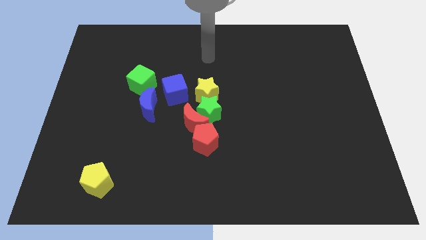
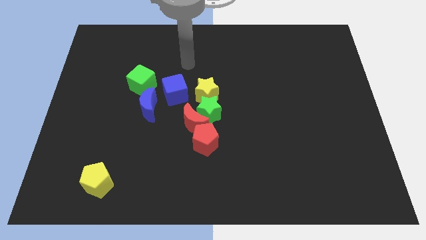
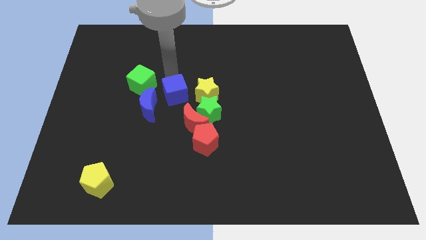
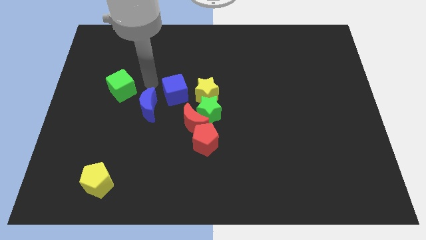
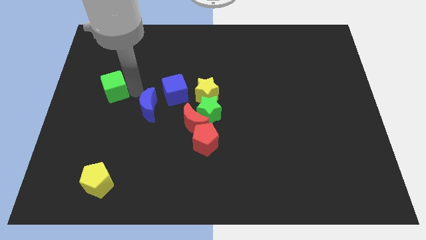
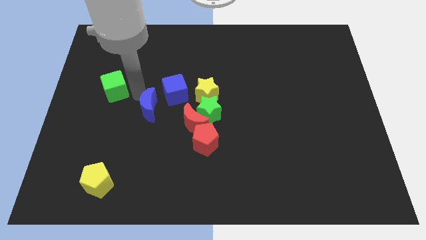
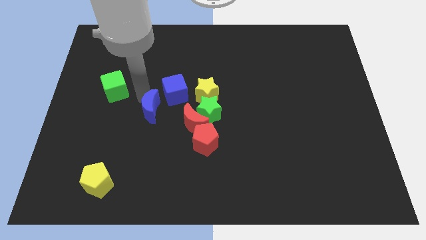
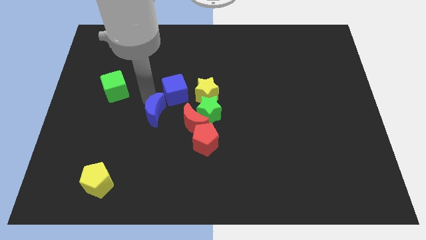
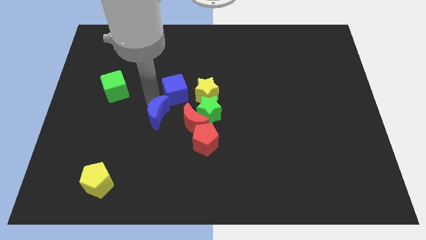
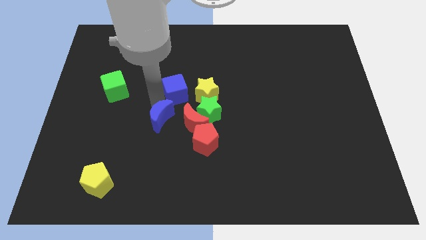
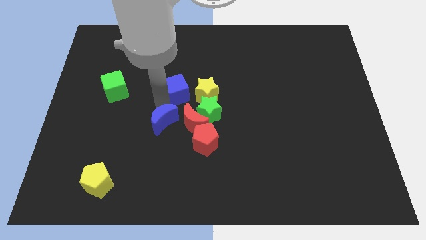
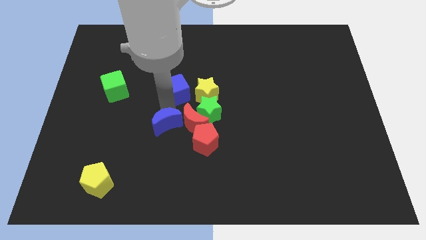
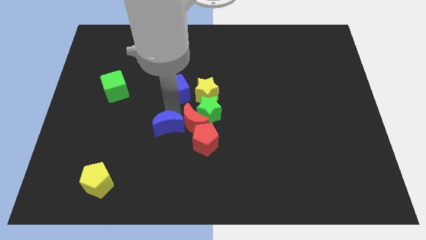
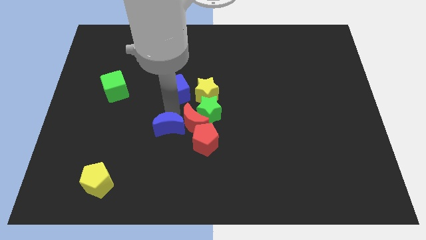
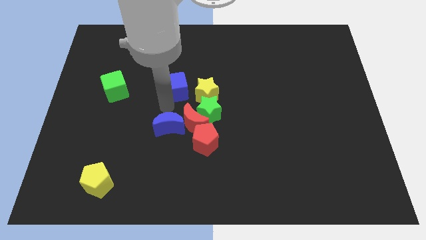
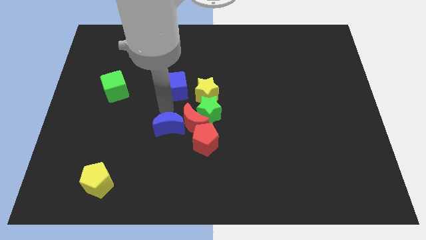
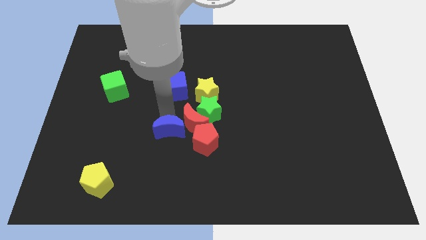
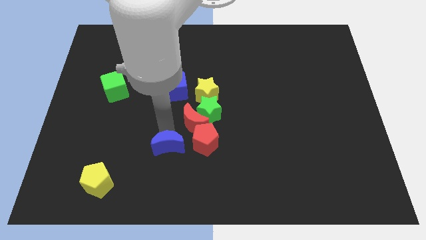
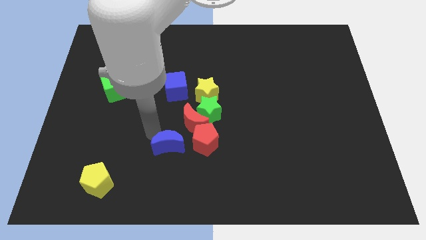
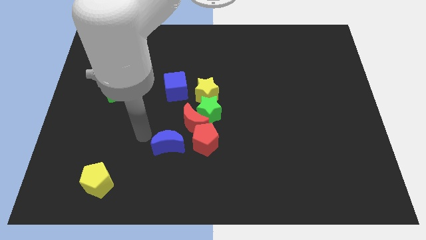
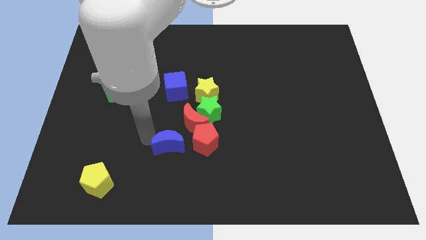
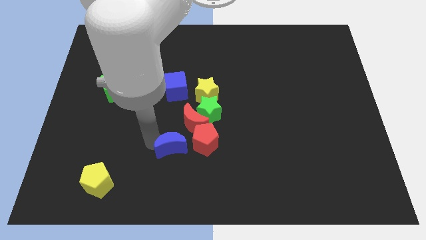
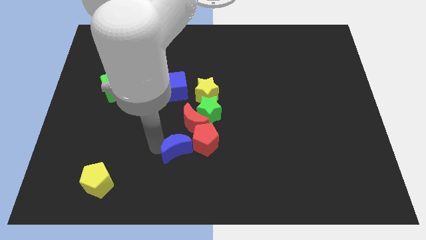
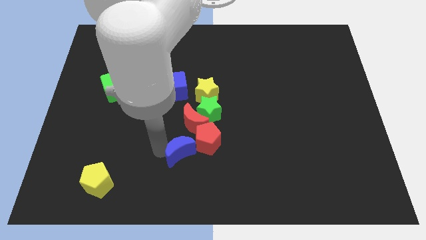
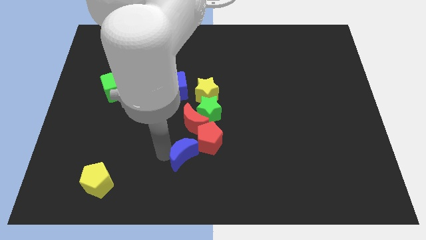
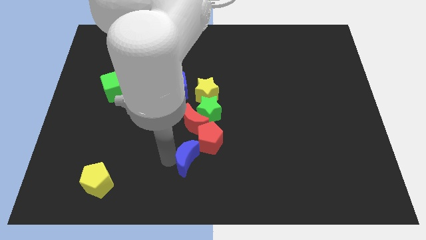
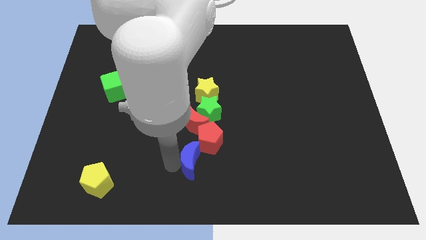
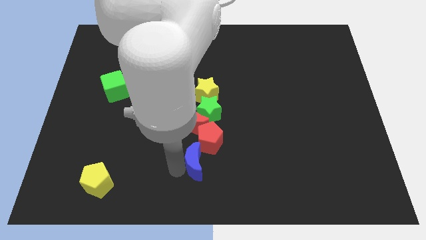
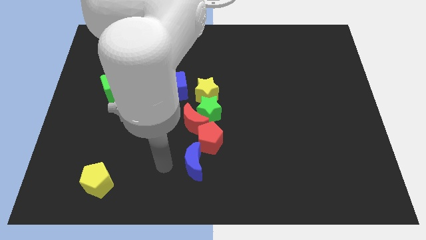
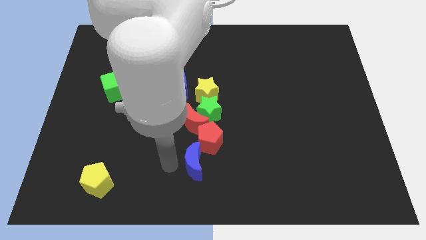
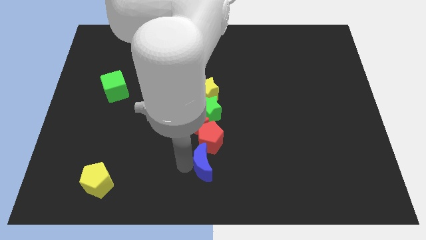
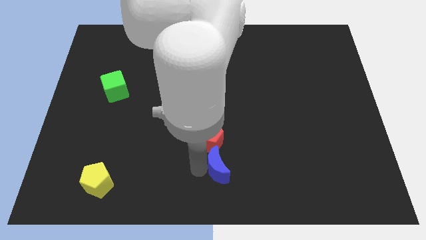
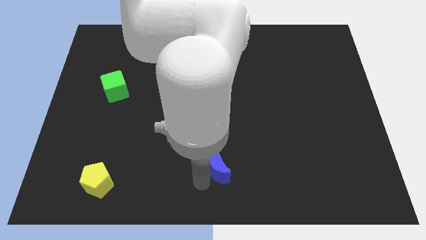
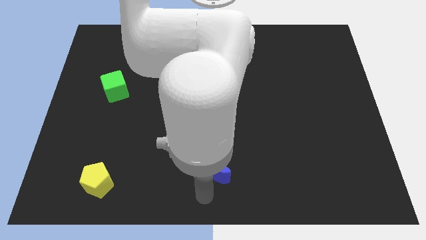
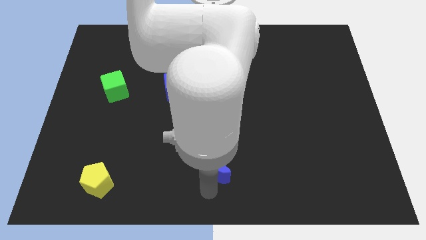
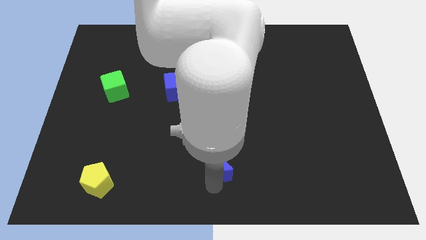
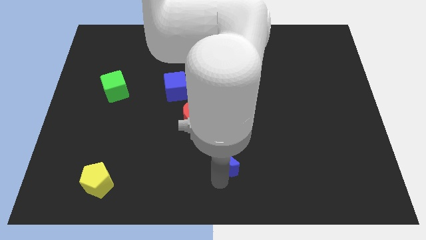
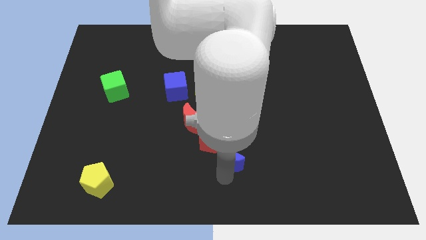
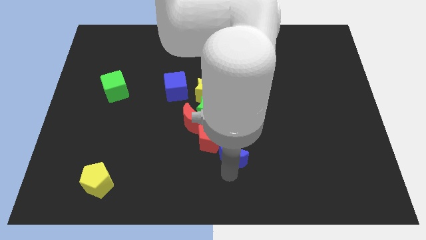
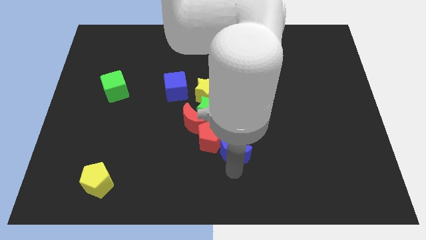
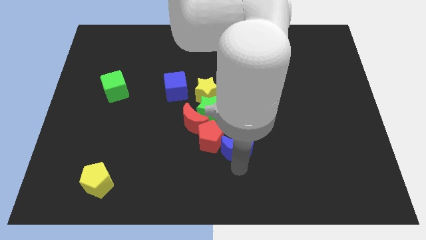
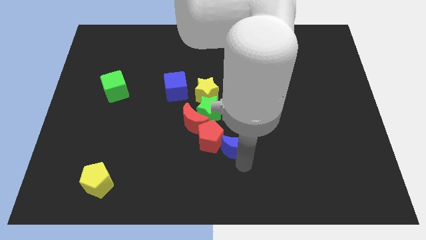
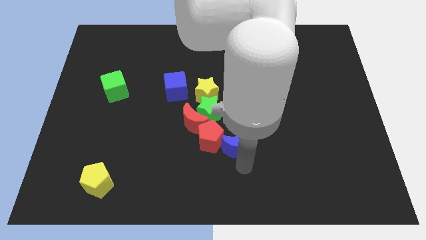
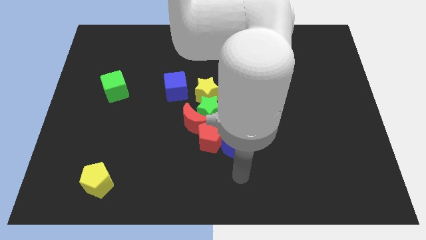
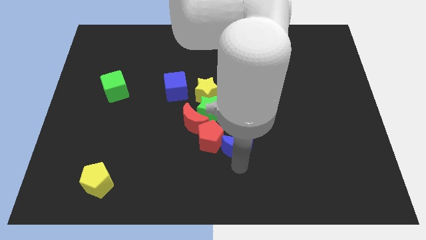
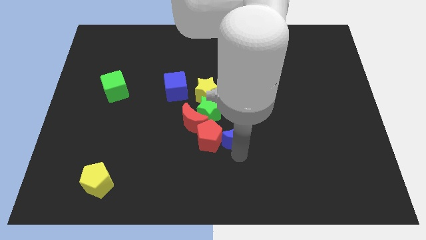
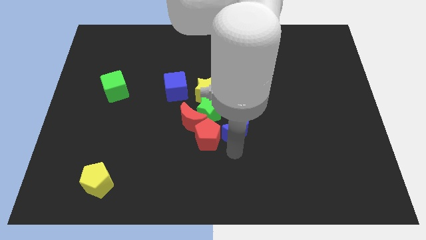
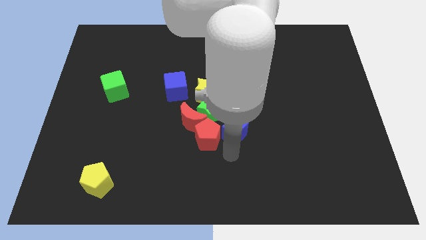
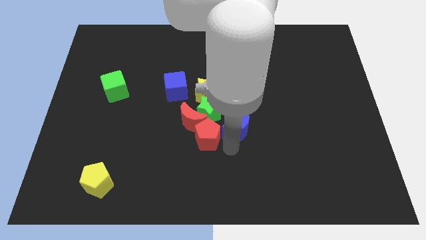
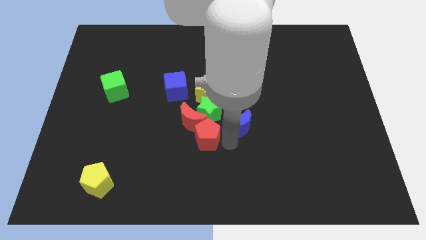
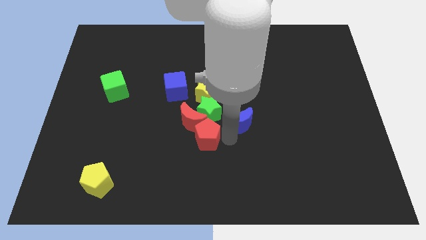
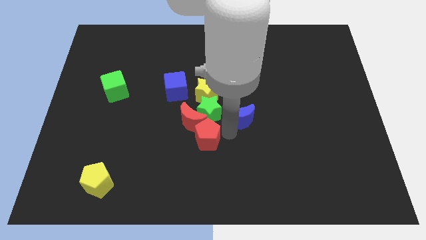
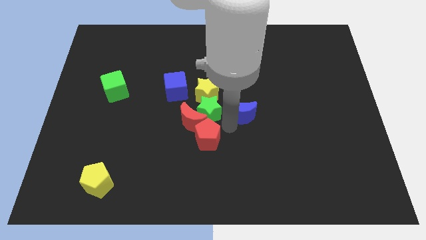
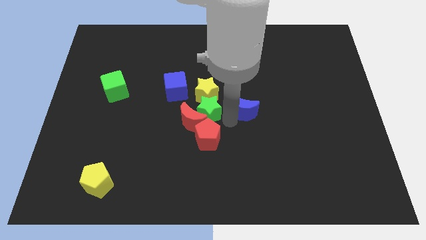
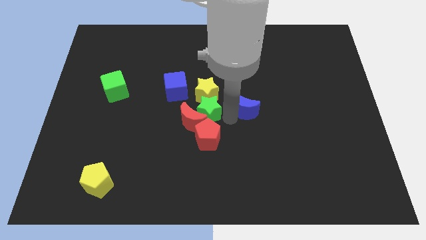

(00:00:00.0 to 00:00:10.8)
push the blue moon to the right of the yellow star

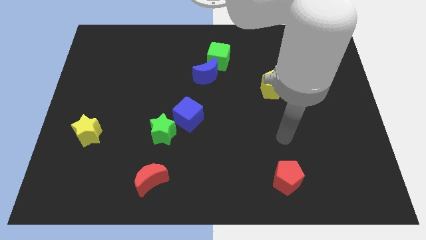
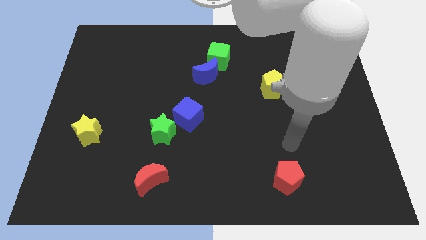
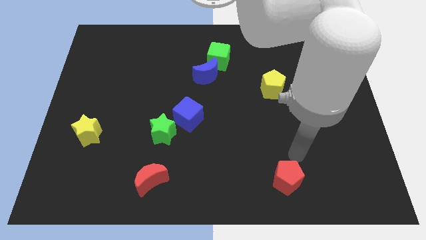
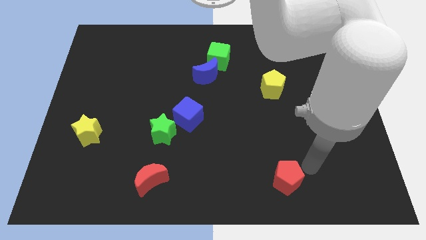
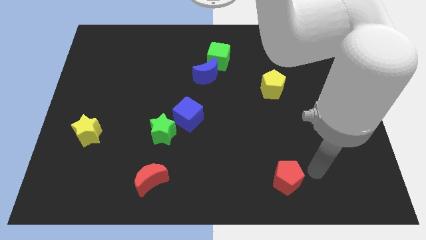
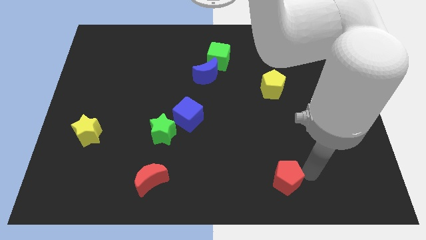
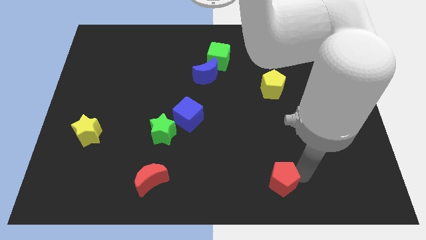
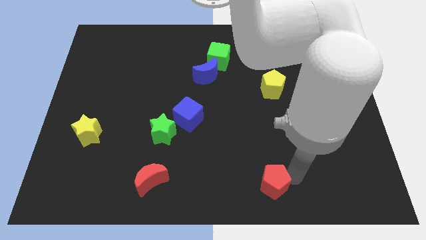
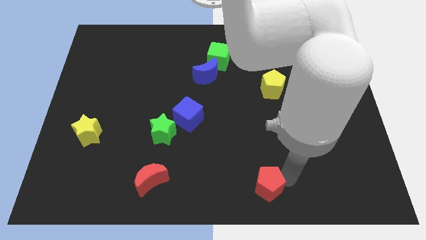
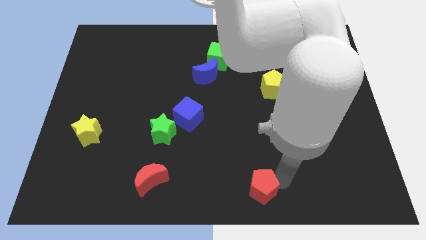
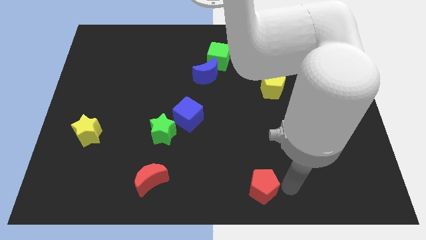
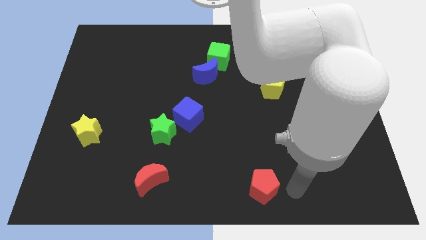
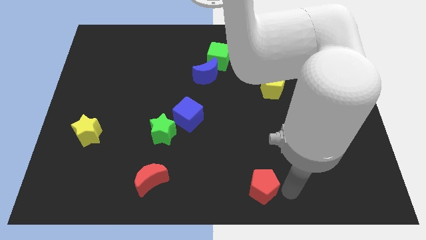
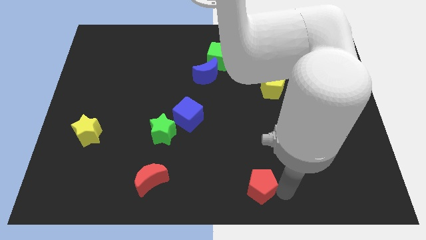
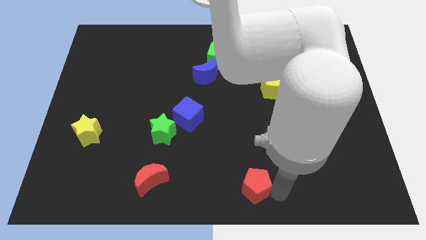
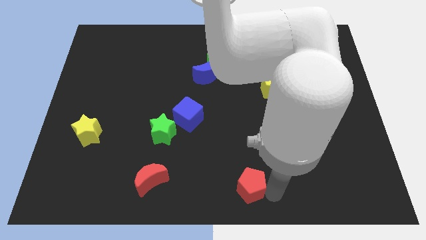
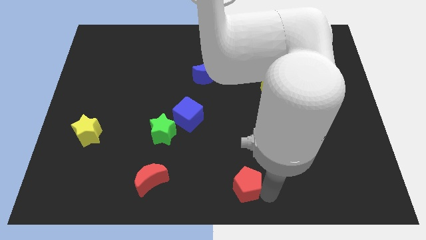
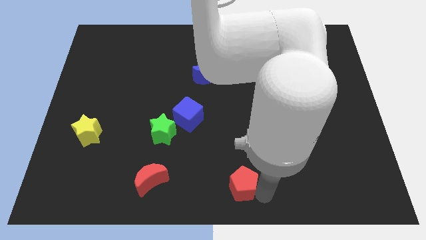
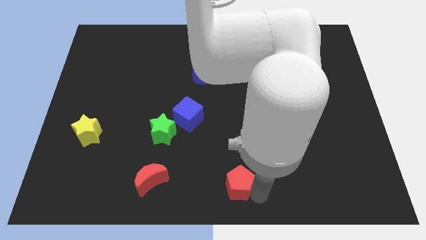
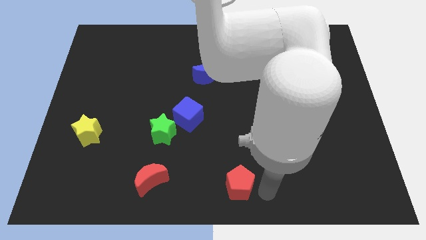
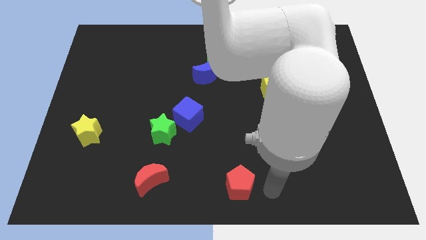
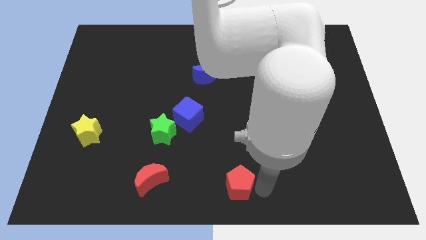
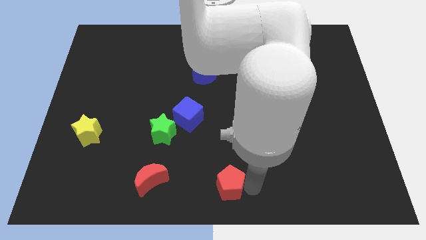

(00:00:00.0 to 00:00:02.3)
slide the red pentagon to the right of the red moon
